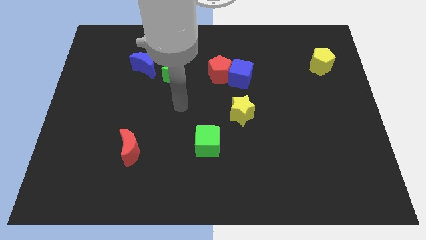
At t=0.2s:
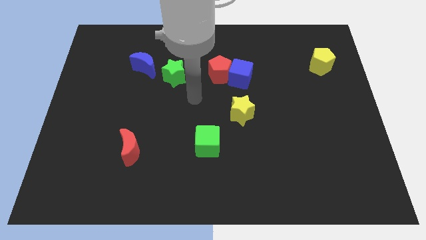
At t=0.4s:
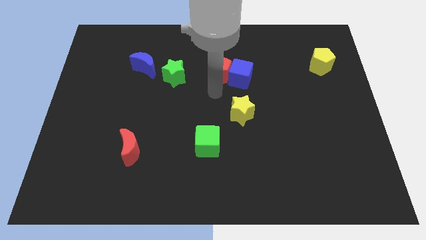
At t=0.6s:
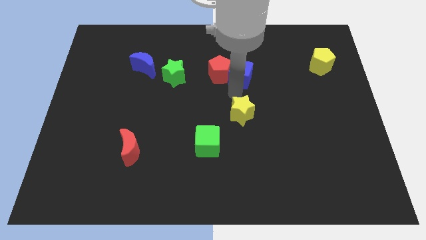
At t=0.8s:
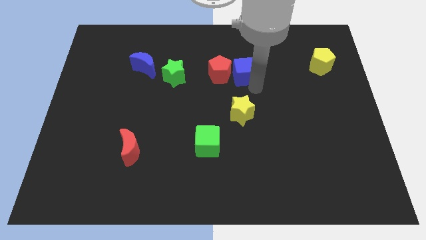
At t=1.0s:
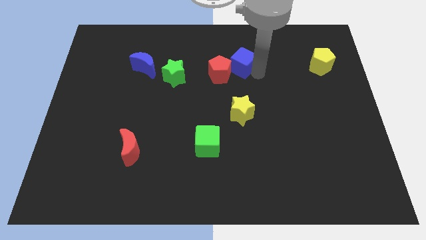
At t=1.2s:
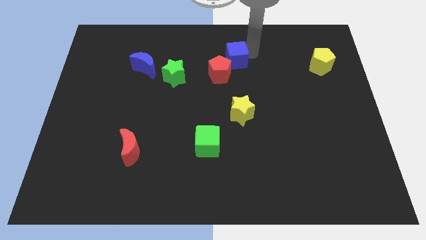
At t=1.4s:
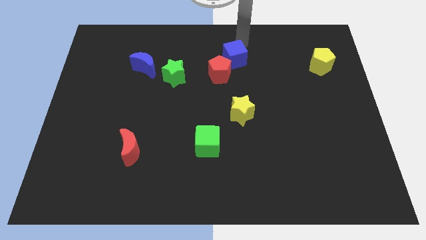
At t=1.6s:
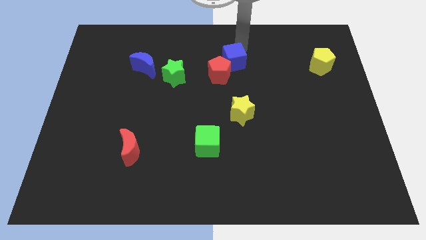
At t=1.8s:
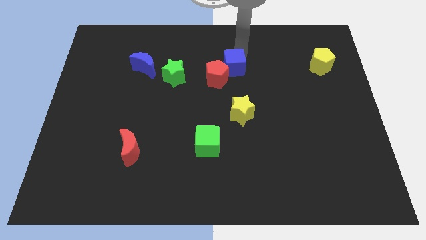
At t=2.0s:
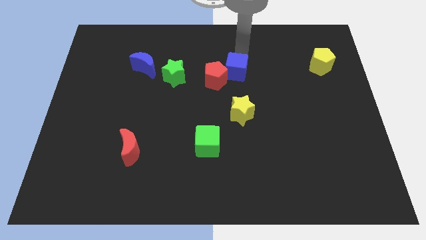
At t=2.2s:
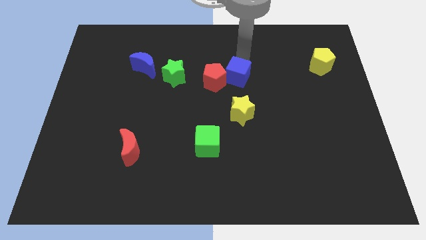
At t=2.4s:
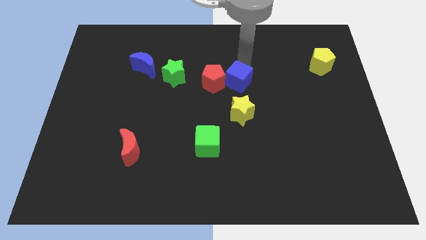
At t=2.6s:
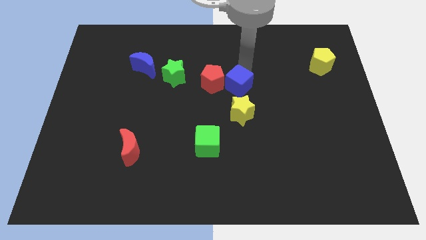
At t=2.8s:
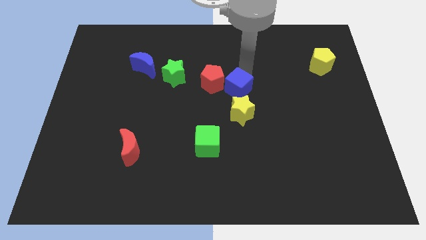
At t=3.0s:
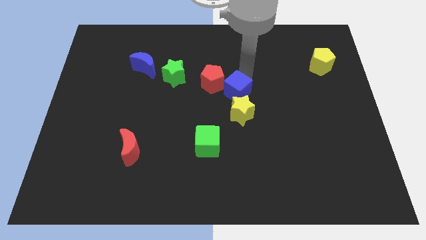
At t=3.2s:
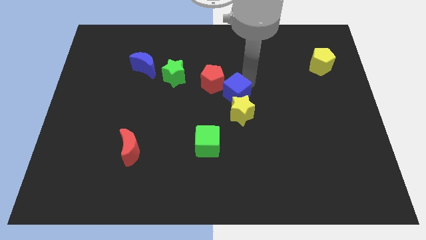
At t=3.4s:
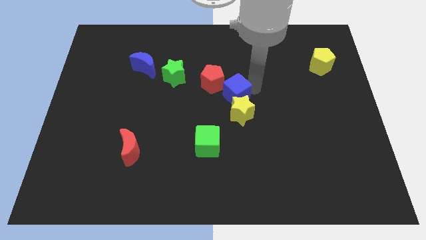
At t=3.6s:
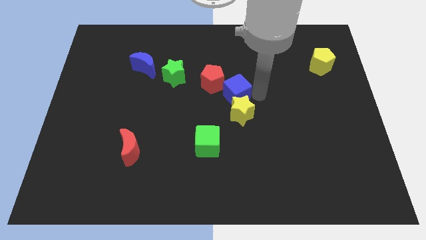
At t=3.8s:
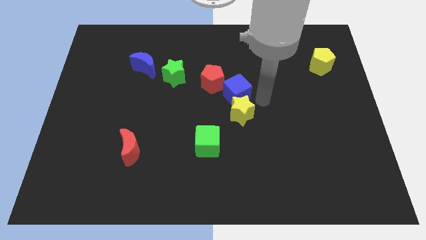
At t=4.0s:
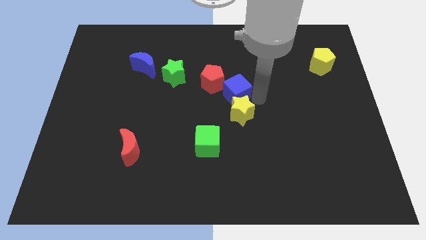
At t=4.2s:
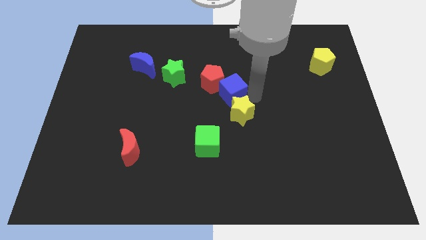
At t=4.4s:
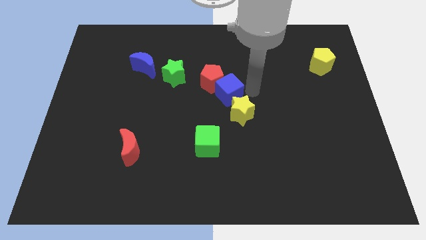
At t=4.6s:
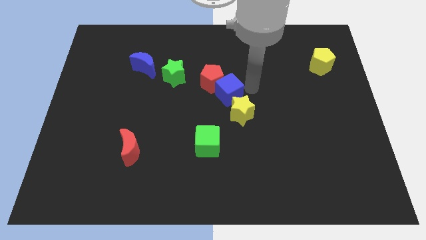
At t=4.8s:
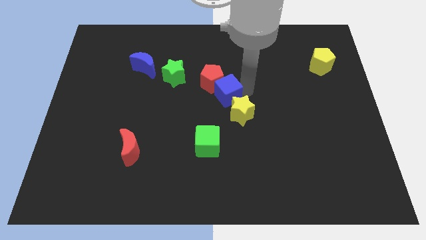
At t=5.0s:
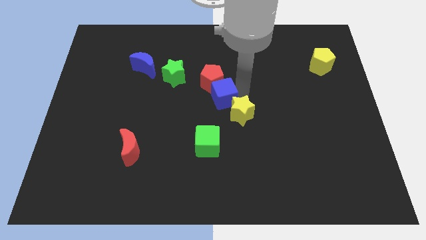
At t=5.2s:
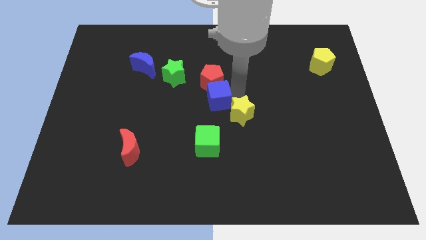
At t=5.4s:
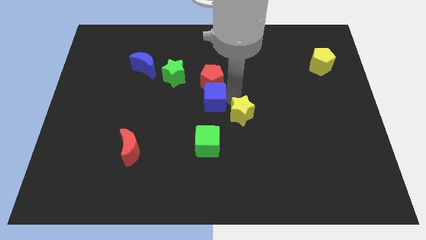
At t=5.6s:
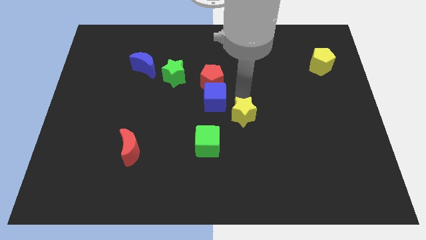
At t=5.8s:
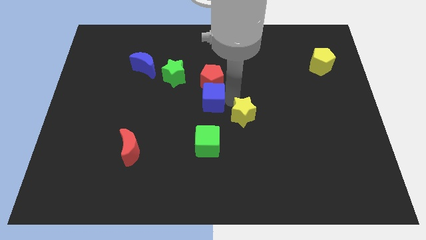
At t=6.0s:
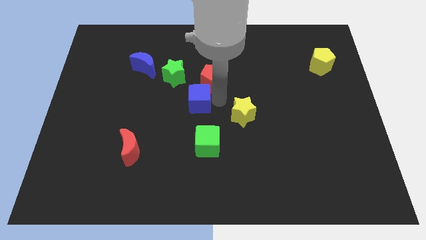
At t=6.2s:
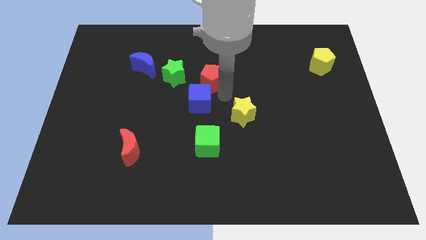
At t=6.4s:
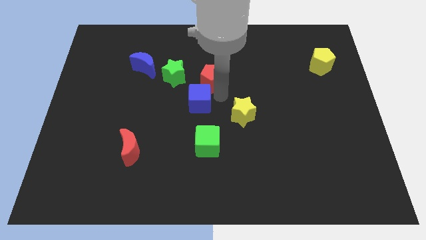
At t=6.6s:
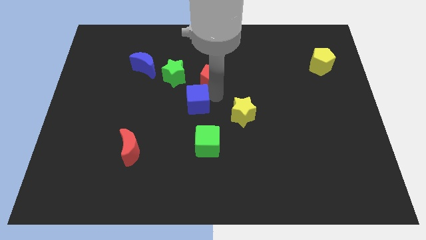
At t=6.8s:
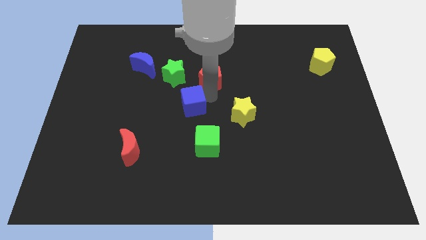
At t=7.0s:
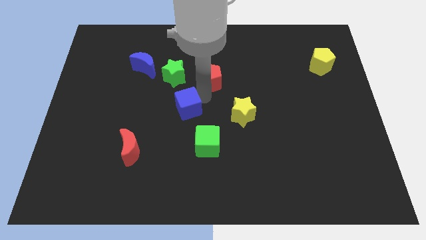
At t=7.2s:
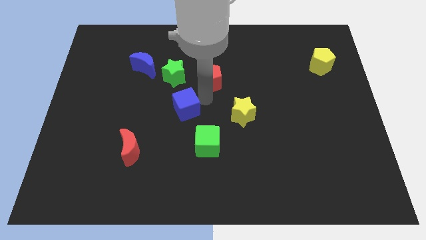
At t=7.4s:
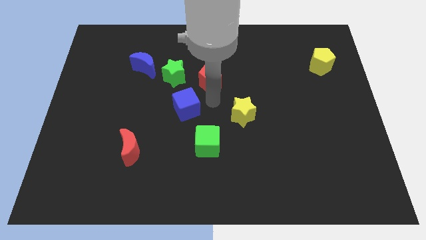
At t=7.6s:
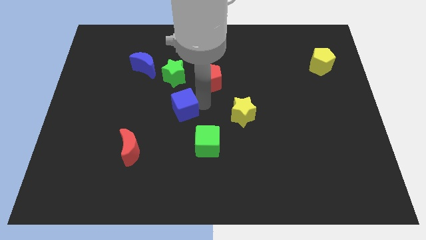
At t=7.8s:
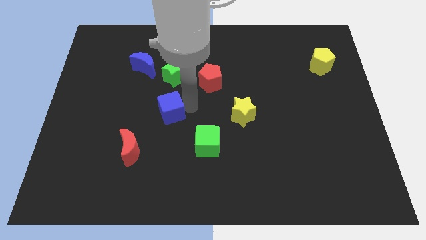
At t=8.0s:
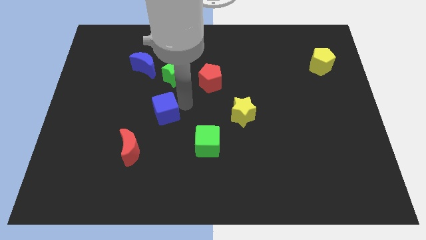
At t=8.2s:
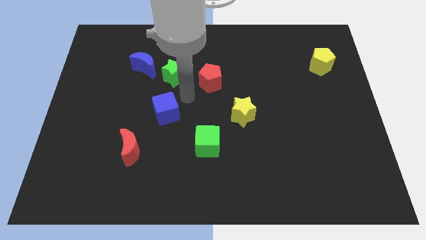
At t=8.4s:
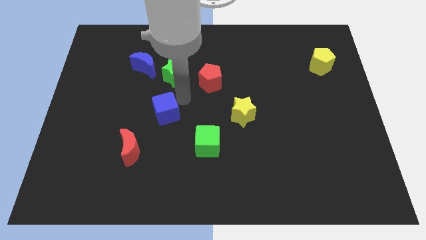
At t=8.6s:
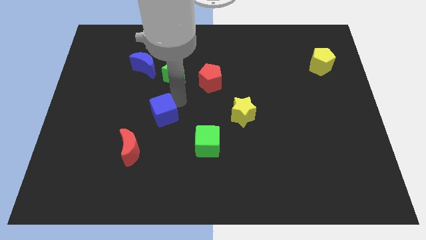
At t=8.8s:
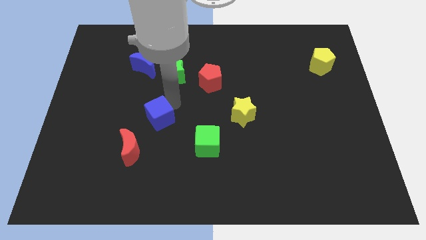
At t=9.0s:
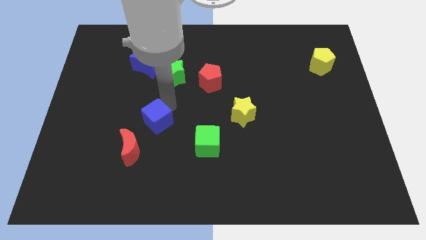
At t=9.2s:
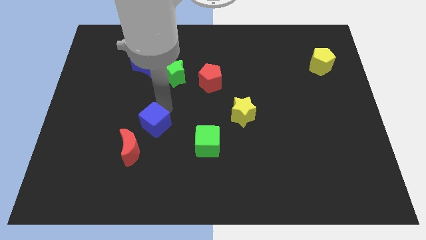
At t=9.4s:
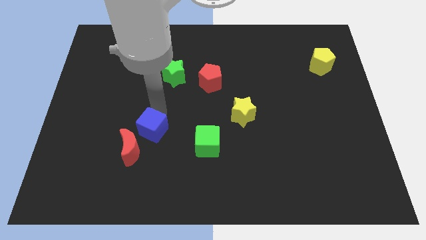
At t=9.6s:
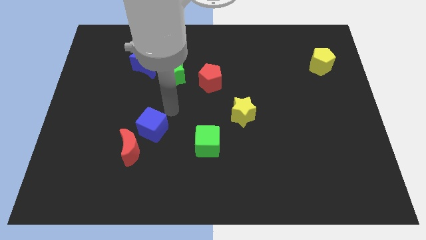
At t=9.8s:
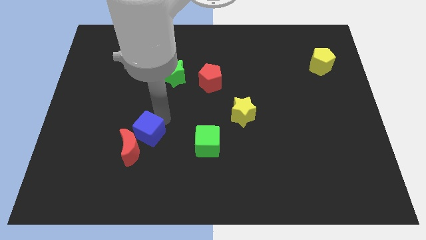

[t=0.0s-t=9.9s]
move the blue cube to the red moon

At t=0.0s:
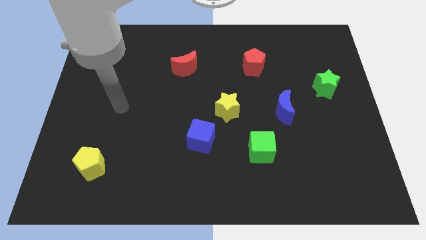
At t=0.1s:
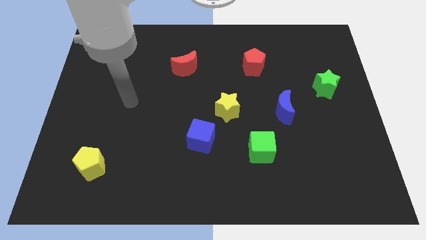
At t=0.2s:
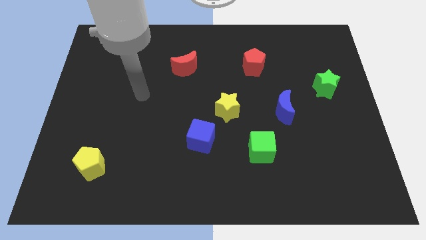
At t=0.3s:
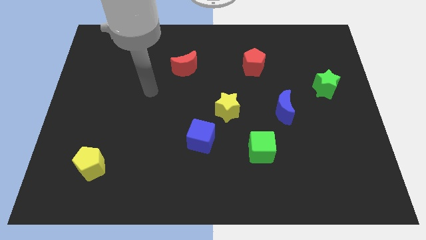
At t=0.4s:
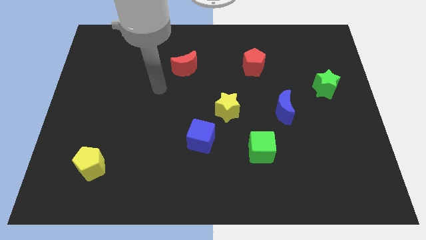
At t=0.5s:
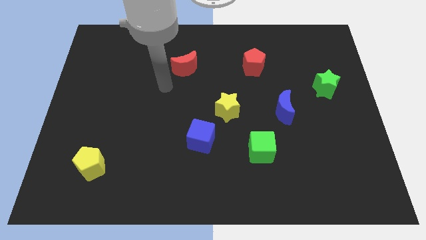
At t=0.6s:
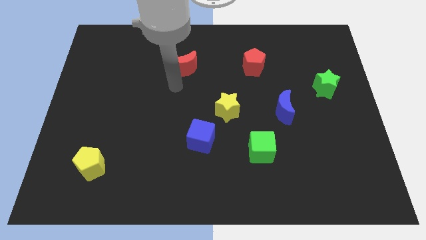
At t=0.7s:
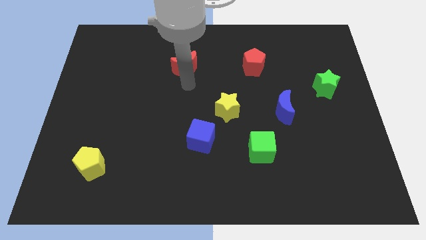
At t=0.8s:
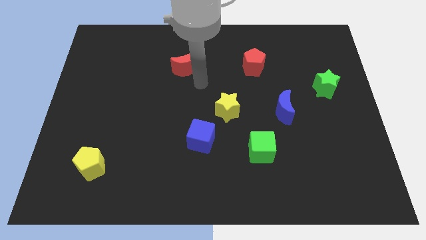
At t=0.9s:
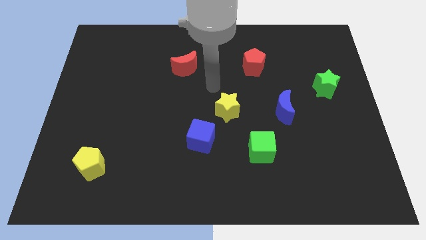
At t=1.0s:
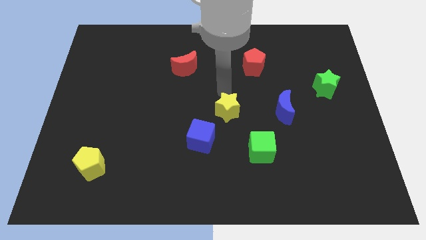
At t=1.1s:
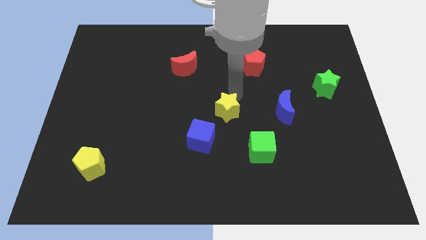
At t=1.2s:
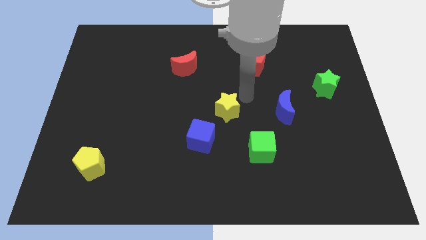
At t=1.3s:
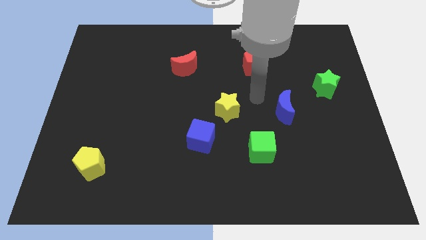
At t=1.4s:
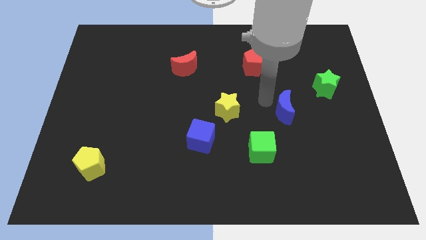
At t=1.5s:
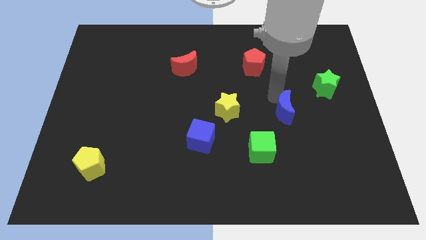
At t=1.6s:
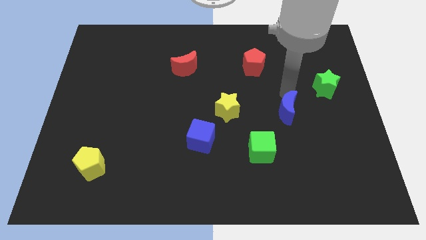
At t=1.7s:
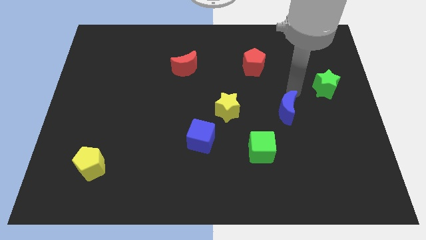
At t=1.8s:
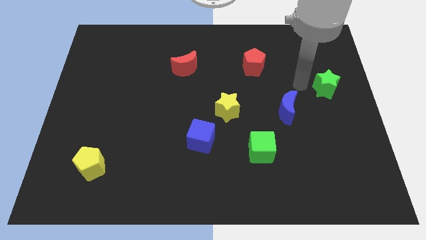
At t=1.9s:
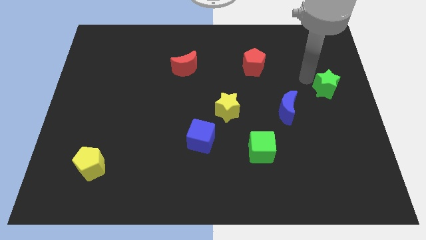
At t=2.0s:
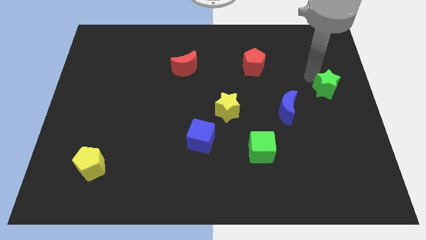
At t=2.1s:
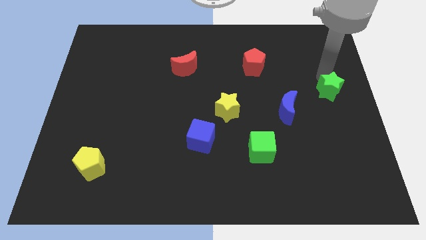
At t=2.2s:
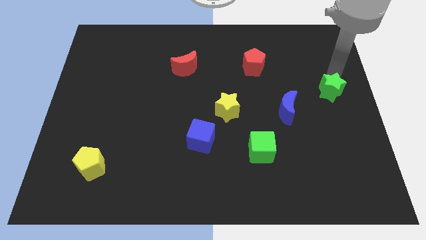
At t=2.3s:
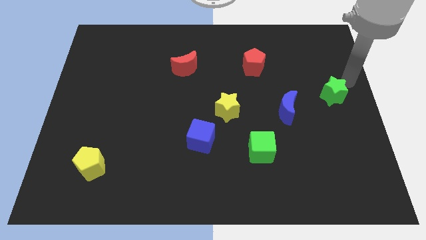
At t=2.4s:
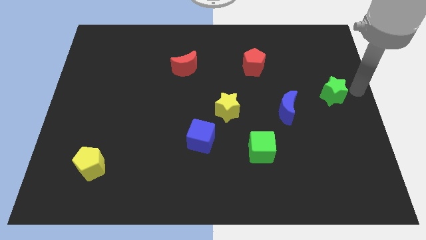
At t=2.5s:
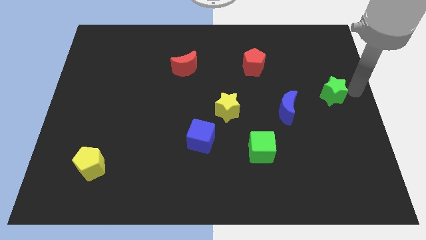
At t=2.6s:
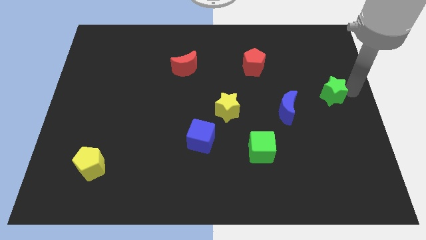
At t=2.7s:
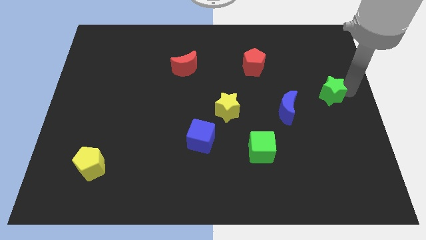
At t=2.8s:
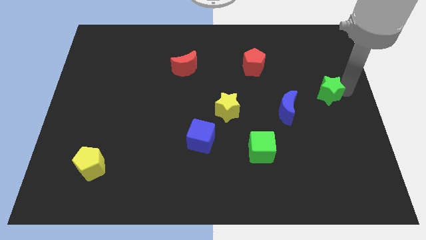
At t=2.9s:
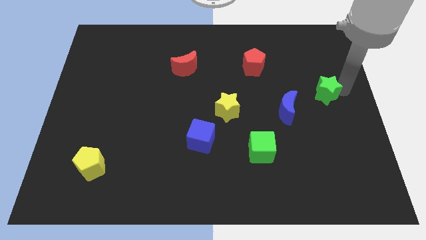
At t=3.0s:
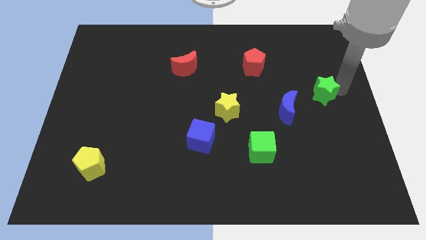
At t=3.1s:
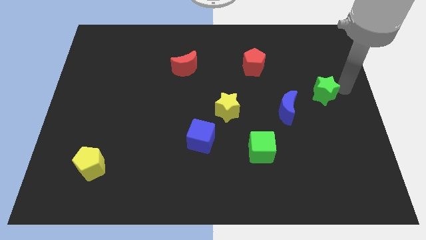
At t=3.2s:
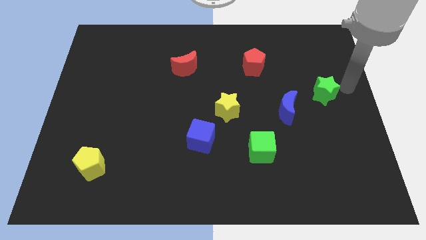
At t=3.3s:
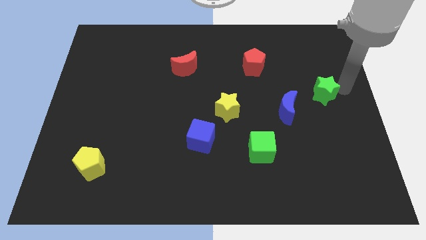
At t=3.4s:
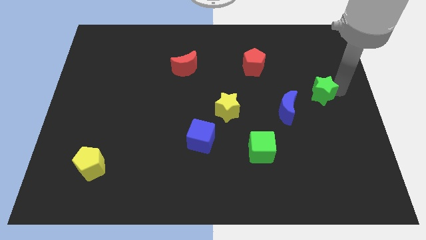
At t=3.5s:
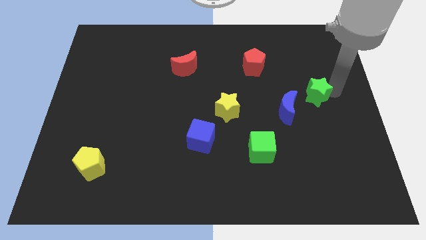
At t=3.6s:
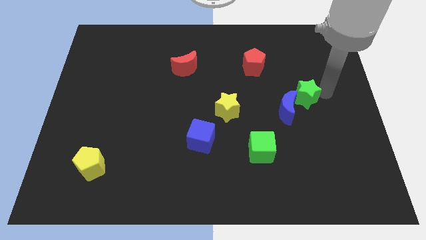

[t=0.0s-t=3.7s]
slide the green star close to the blue moon
